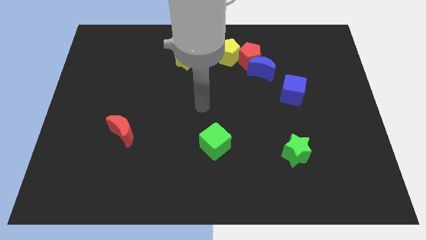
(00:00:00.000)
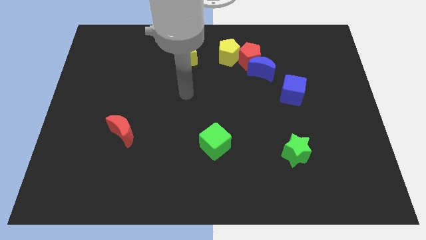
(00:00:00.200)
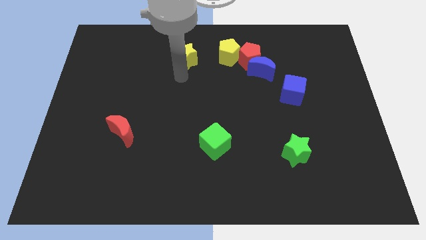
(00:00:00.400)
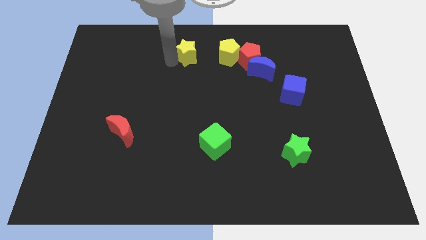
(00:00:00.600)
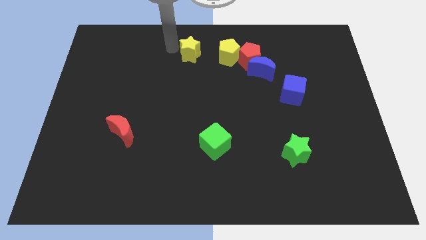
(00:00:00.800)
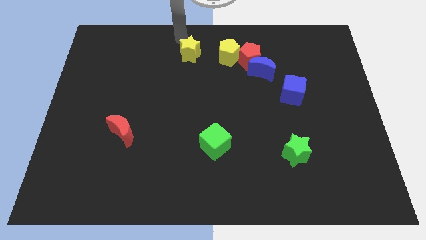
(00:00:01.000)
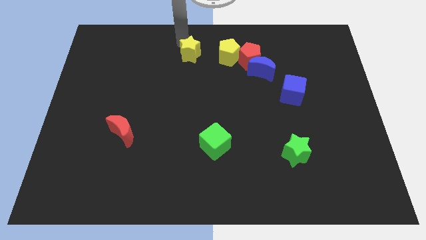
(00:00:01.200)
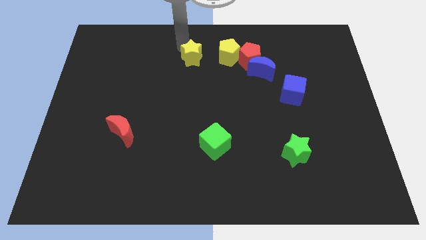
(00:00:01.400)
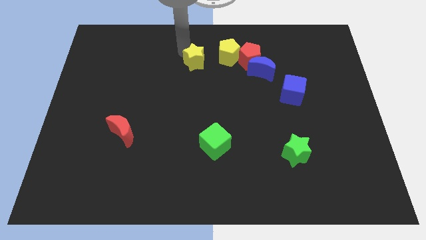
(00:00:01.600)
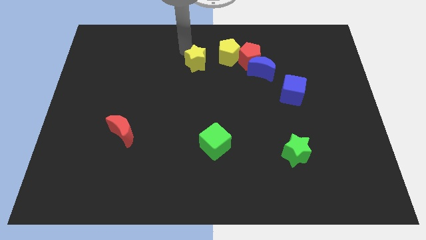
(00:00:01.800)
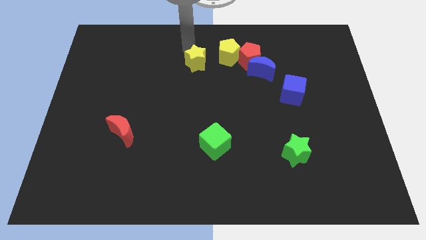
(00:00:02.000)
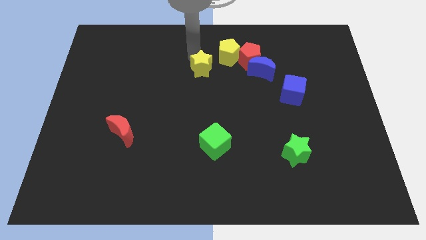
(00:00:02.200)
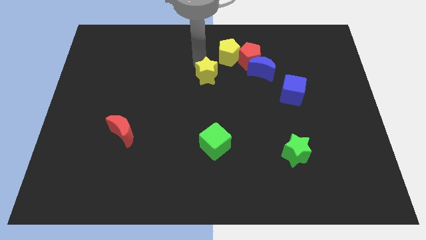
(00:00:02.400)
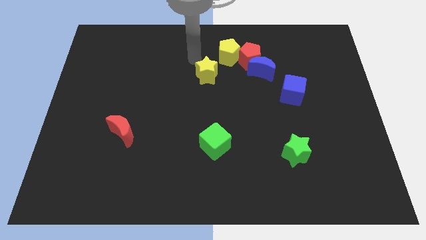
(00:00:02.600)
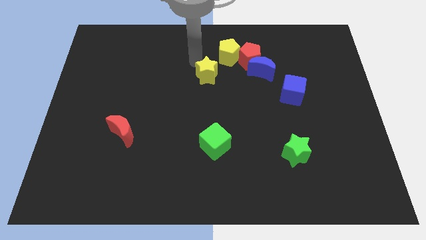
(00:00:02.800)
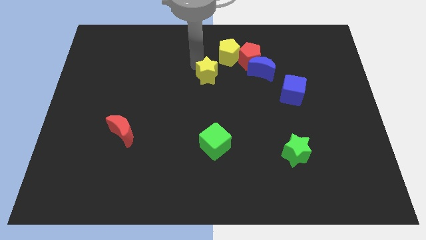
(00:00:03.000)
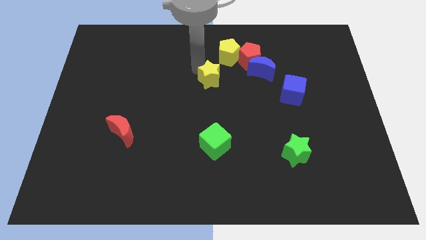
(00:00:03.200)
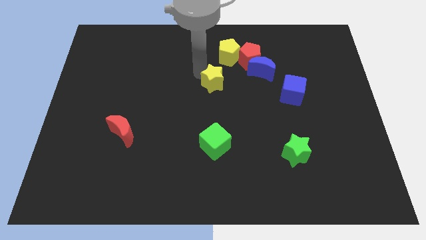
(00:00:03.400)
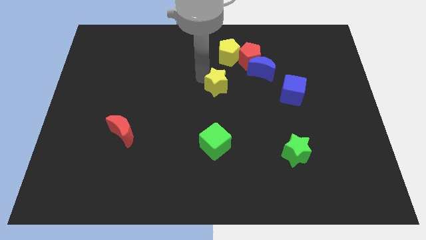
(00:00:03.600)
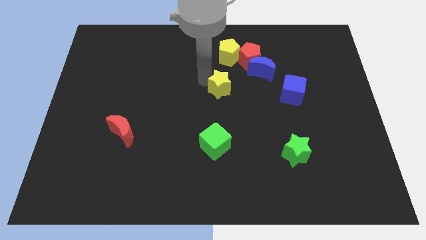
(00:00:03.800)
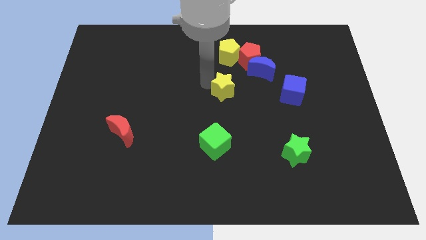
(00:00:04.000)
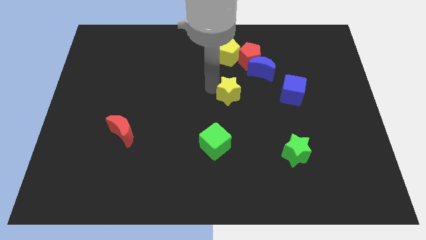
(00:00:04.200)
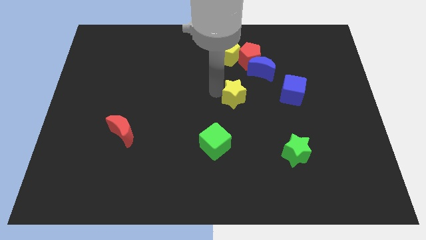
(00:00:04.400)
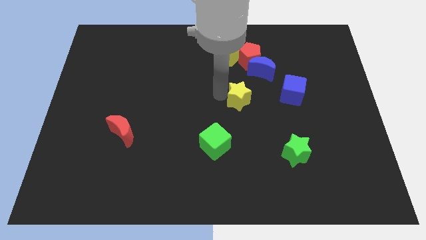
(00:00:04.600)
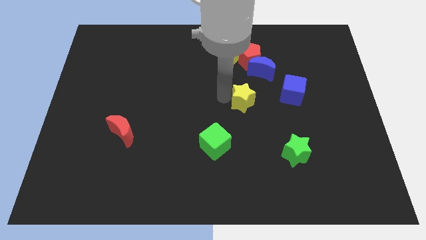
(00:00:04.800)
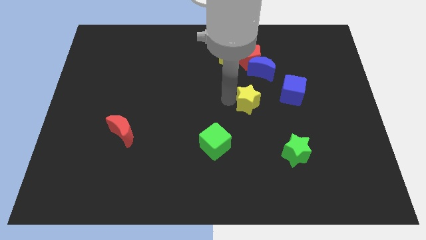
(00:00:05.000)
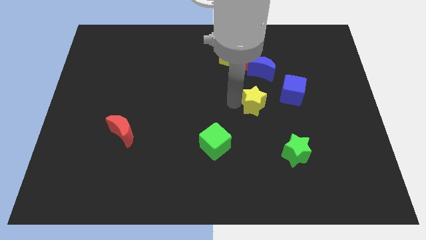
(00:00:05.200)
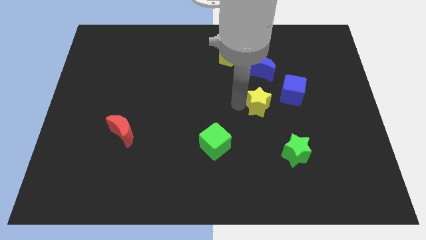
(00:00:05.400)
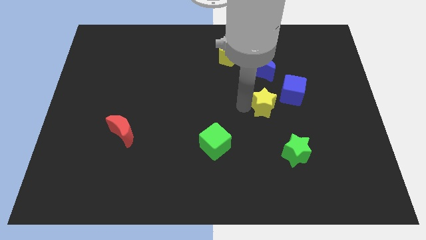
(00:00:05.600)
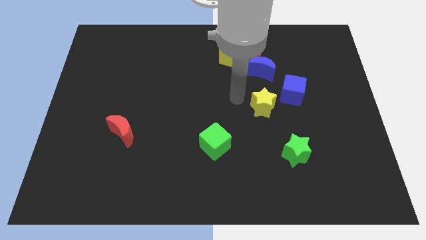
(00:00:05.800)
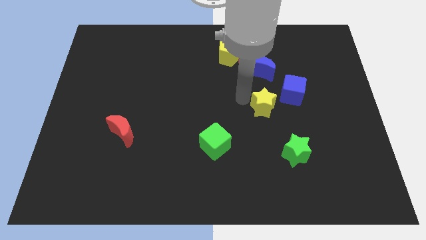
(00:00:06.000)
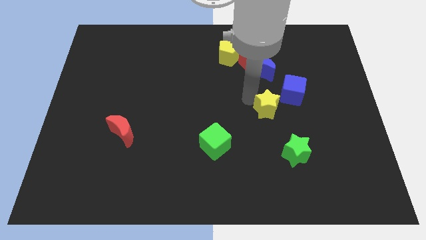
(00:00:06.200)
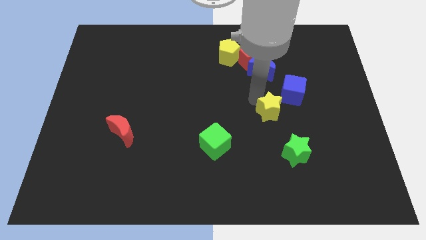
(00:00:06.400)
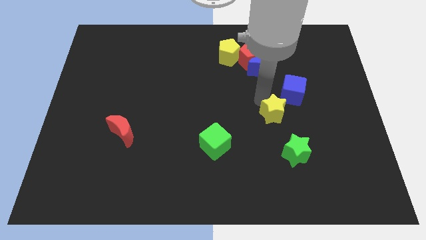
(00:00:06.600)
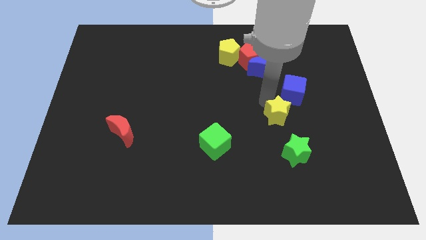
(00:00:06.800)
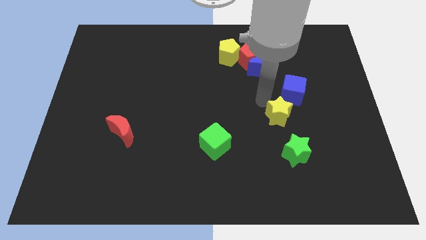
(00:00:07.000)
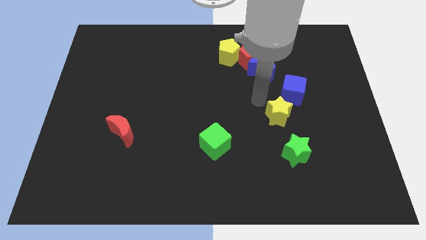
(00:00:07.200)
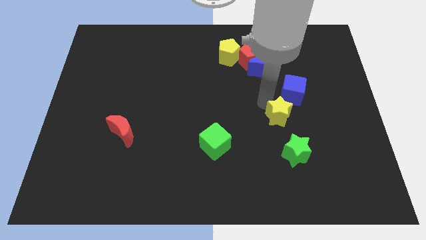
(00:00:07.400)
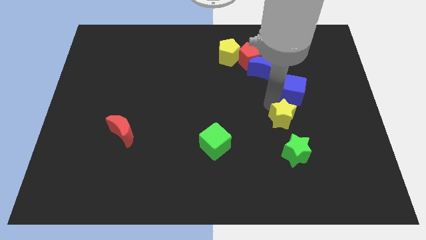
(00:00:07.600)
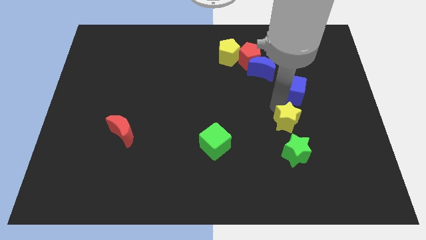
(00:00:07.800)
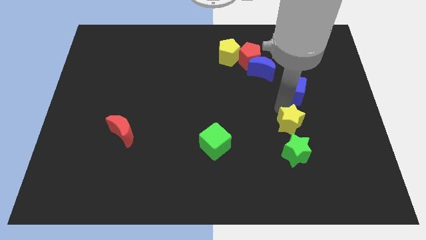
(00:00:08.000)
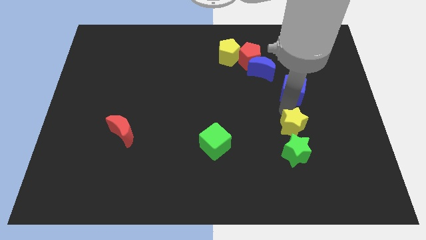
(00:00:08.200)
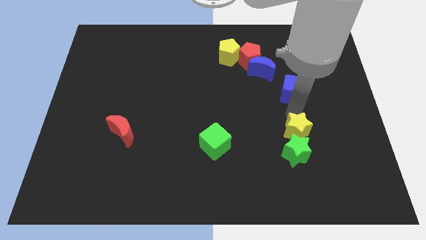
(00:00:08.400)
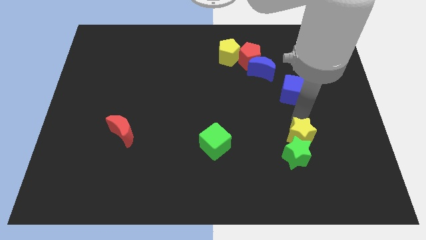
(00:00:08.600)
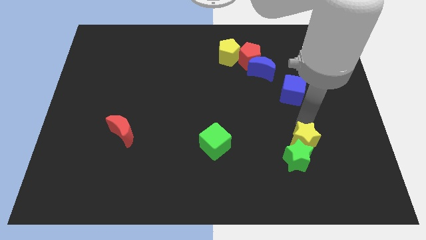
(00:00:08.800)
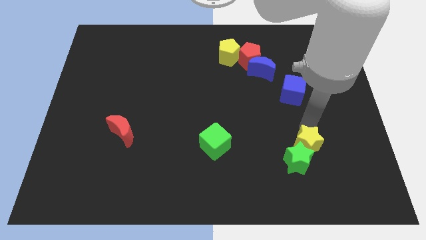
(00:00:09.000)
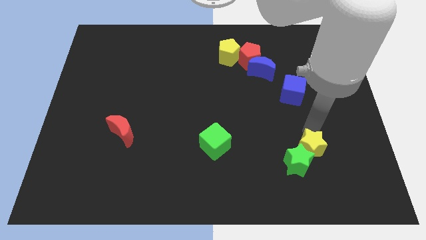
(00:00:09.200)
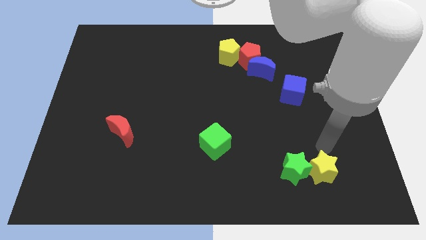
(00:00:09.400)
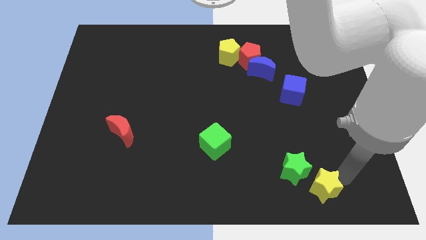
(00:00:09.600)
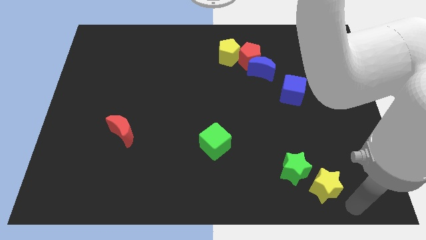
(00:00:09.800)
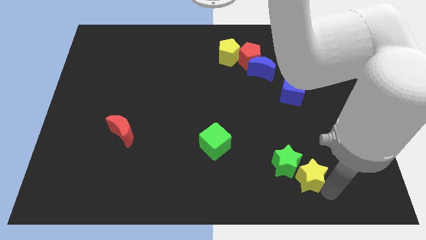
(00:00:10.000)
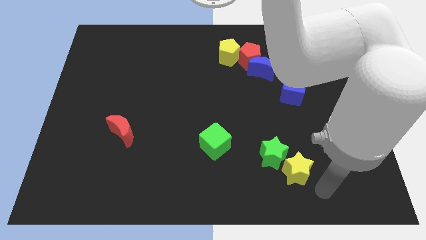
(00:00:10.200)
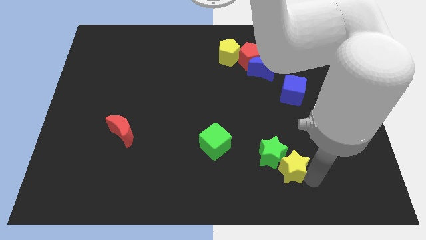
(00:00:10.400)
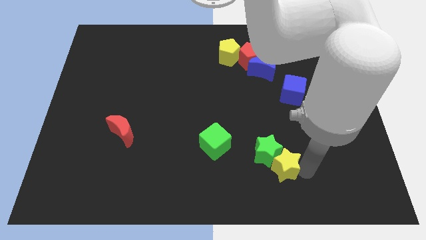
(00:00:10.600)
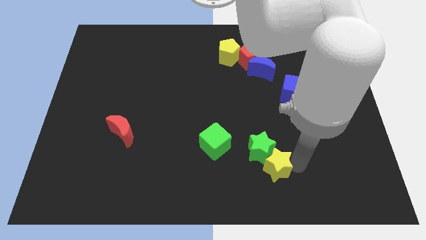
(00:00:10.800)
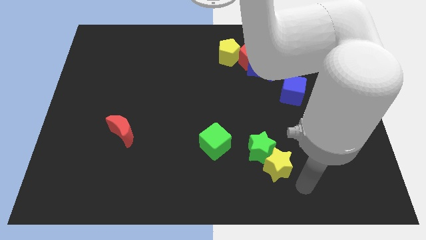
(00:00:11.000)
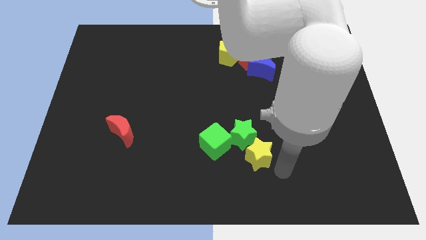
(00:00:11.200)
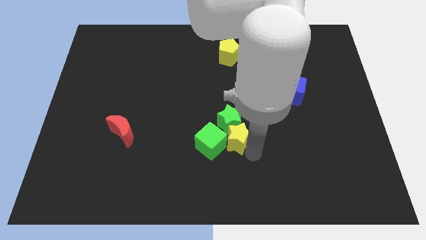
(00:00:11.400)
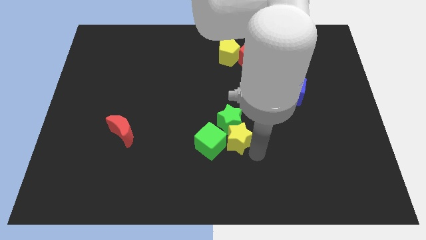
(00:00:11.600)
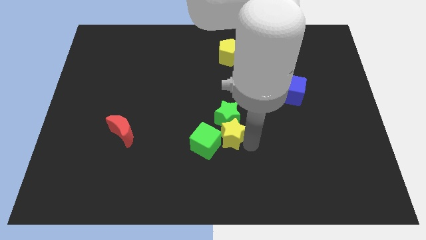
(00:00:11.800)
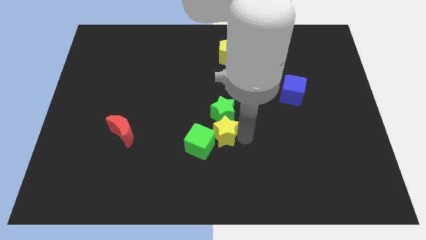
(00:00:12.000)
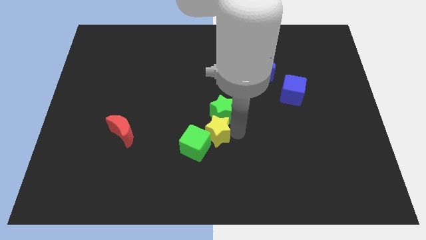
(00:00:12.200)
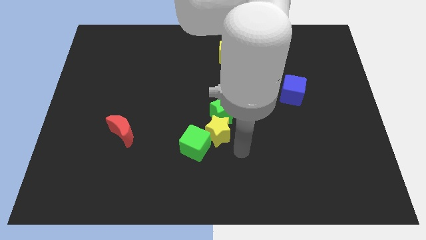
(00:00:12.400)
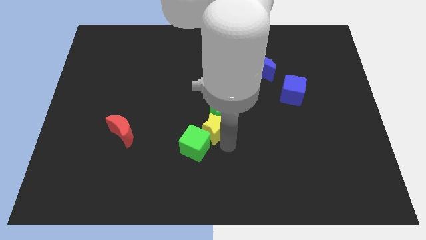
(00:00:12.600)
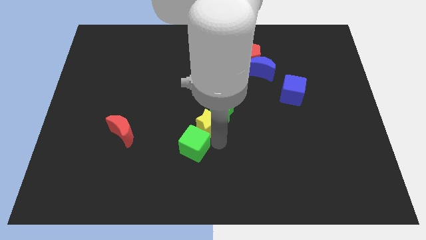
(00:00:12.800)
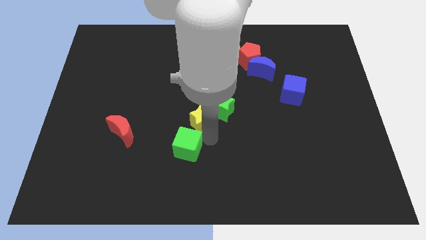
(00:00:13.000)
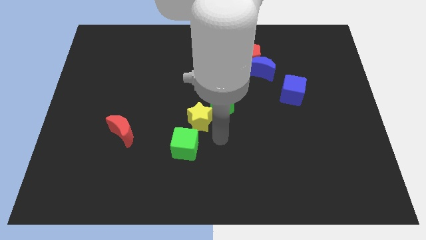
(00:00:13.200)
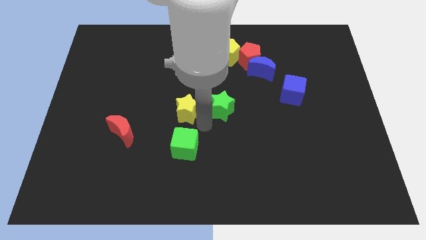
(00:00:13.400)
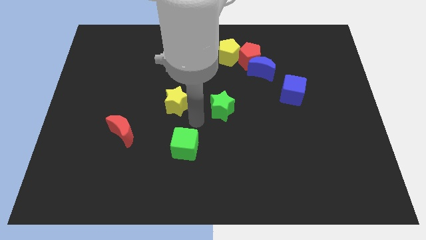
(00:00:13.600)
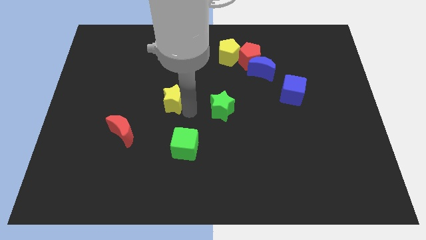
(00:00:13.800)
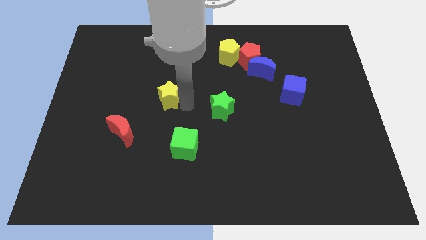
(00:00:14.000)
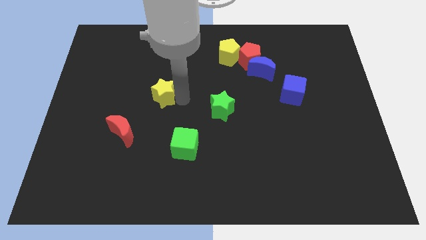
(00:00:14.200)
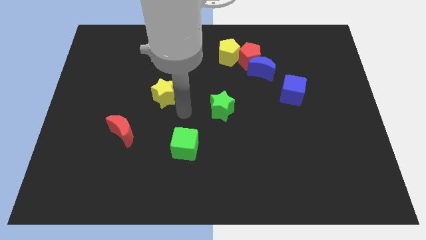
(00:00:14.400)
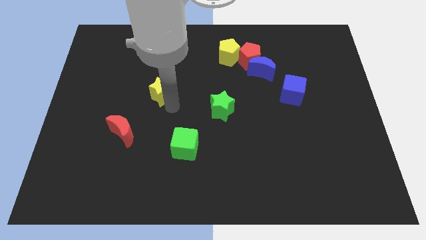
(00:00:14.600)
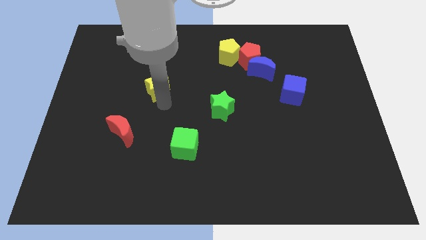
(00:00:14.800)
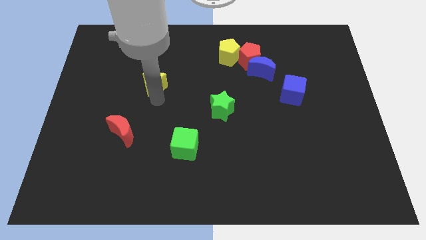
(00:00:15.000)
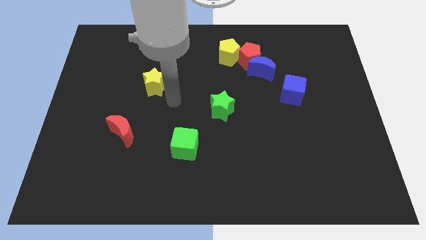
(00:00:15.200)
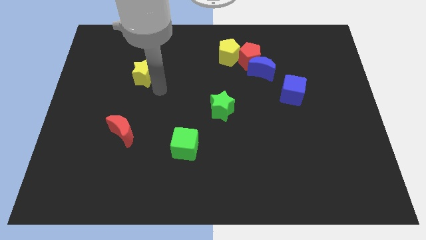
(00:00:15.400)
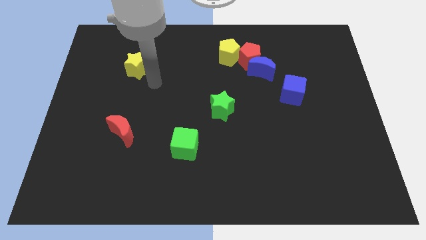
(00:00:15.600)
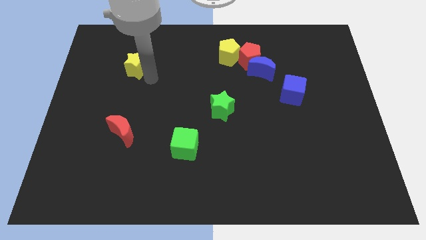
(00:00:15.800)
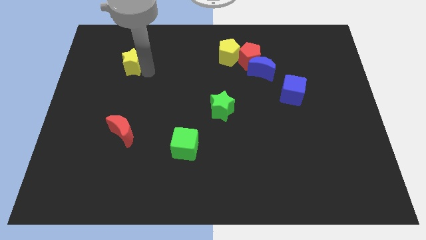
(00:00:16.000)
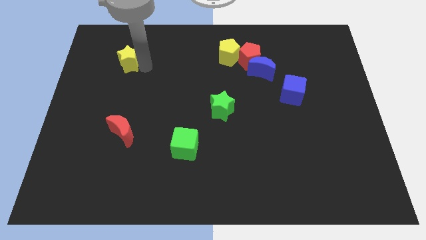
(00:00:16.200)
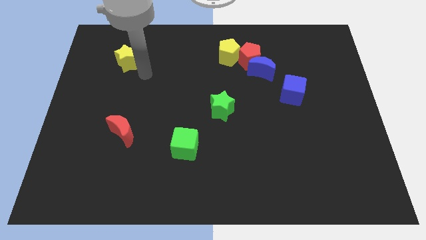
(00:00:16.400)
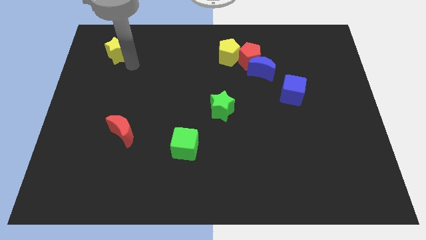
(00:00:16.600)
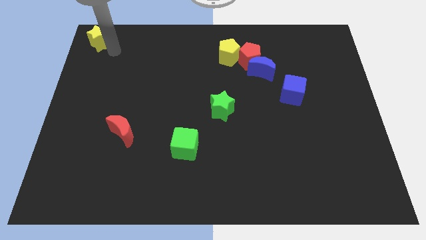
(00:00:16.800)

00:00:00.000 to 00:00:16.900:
slide the yellow star to the top left of the board
